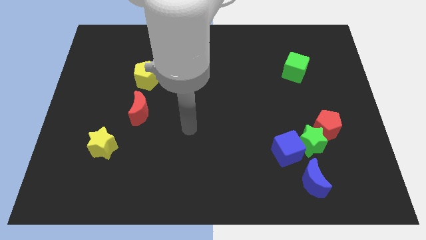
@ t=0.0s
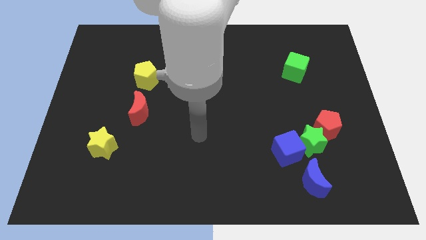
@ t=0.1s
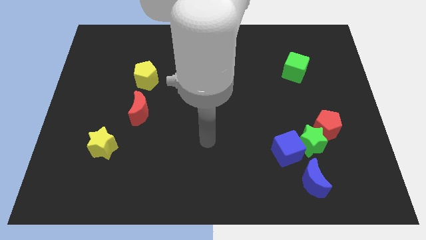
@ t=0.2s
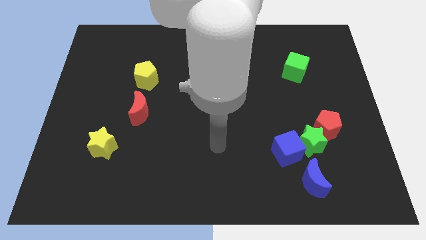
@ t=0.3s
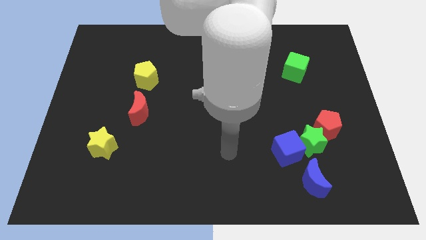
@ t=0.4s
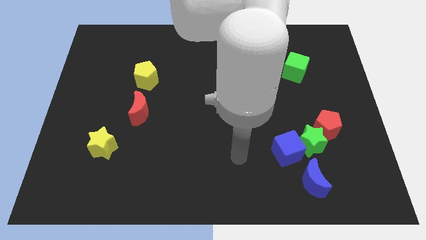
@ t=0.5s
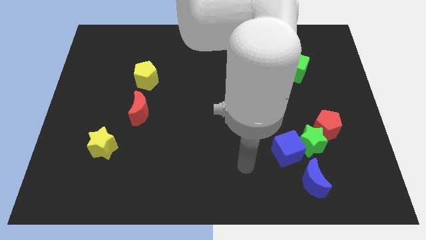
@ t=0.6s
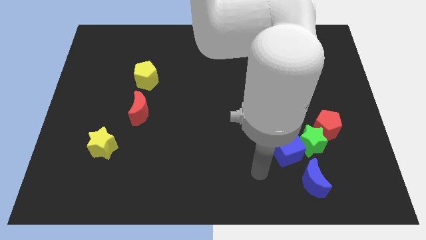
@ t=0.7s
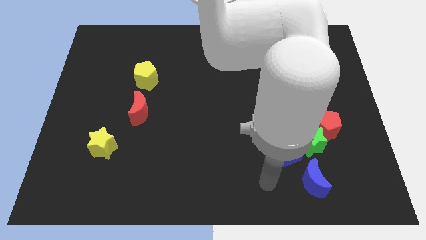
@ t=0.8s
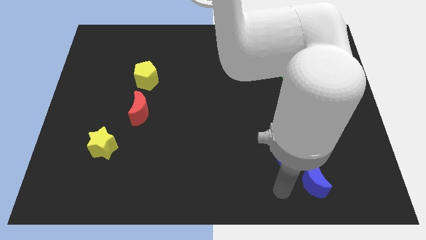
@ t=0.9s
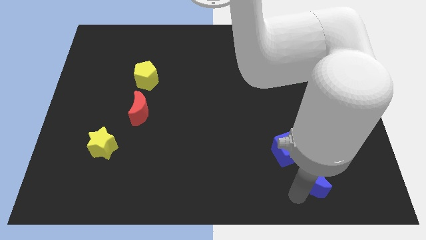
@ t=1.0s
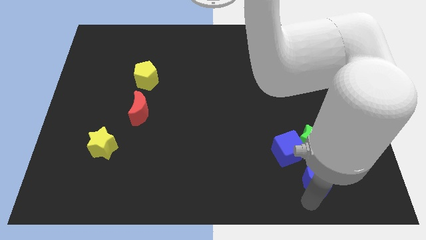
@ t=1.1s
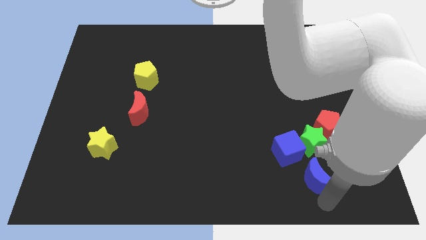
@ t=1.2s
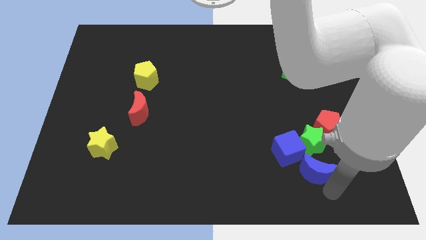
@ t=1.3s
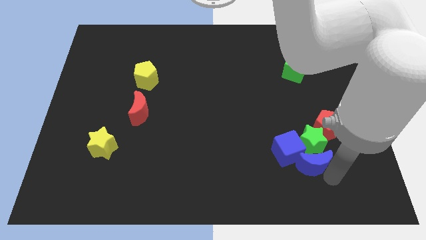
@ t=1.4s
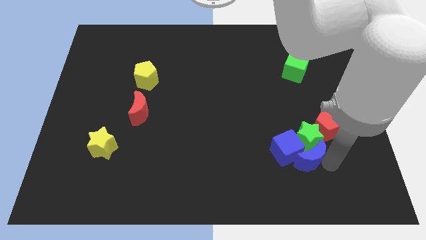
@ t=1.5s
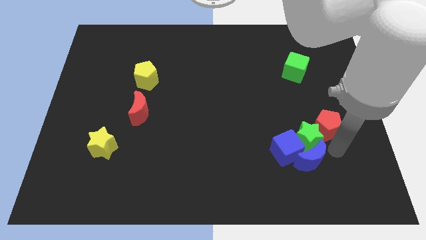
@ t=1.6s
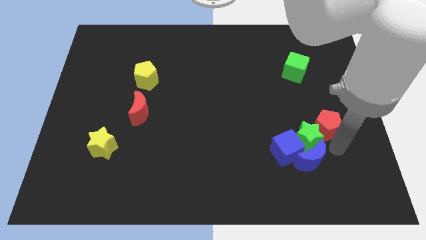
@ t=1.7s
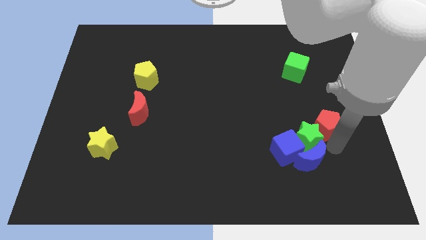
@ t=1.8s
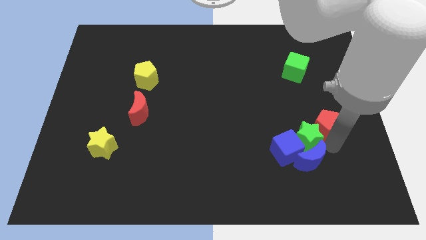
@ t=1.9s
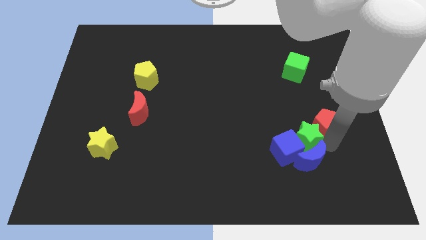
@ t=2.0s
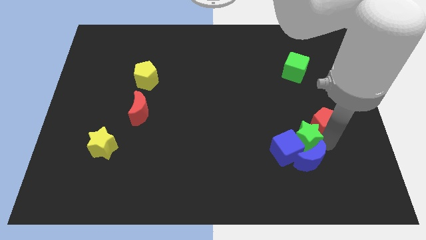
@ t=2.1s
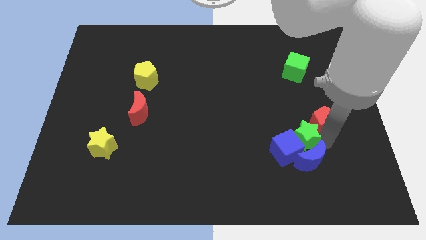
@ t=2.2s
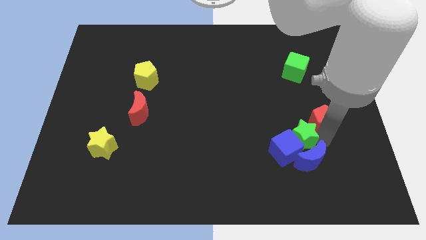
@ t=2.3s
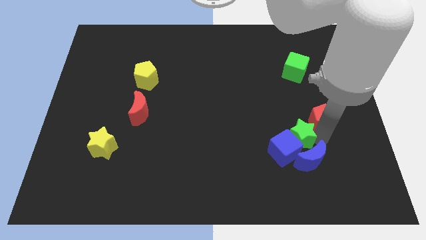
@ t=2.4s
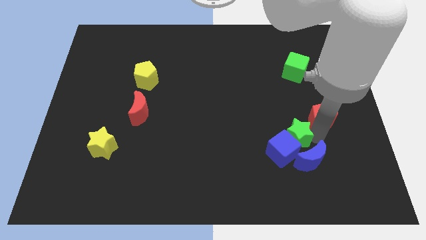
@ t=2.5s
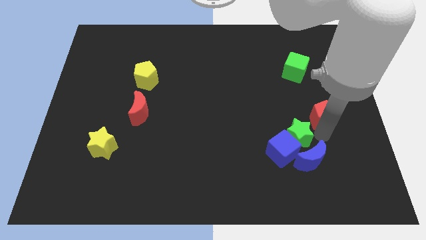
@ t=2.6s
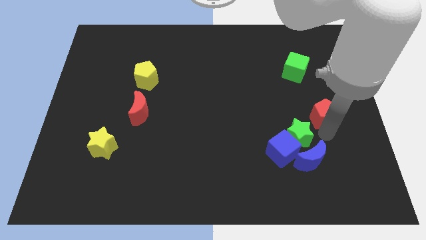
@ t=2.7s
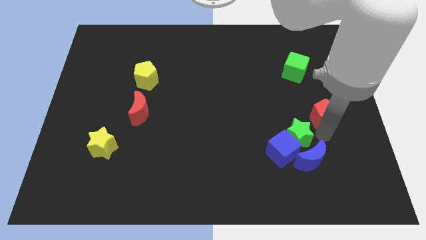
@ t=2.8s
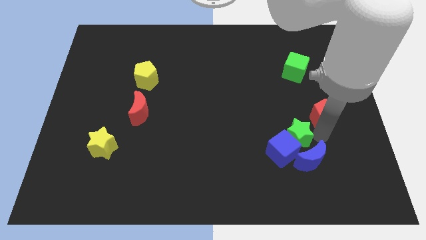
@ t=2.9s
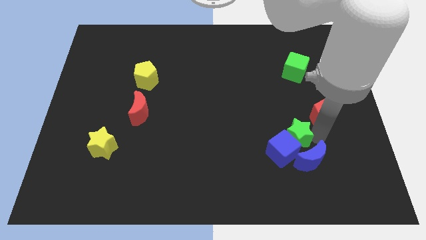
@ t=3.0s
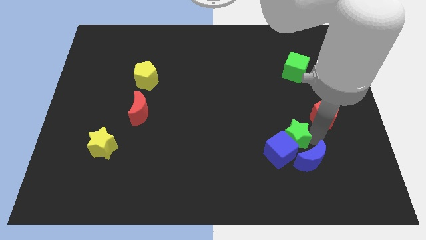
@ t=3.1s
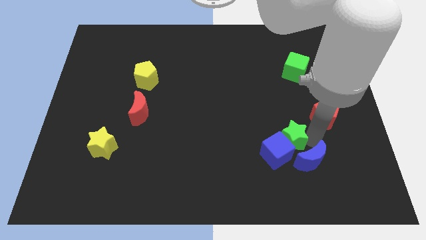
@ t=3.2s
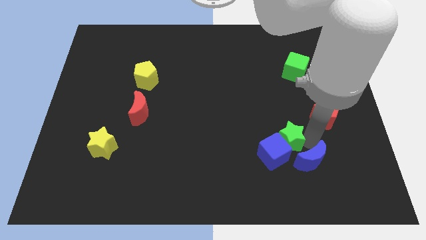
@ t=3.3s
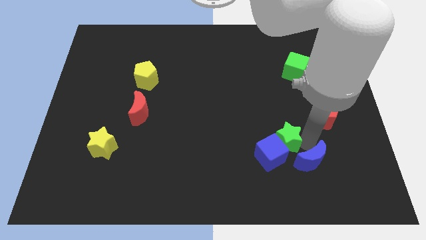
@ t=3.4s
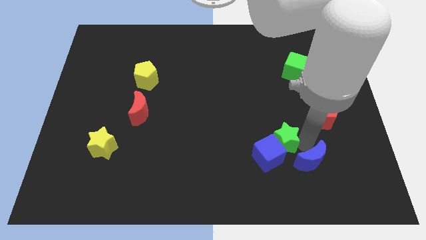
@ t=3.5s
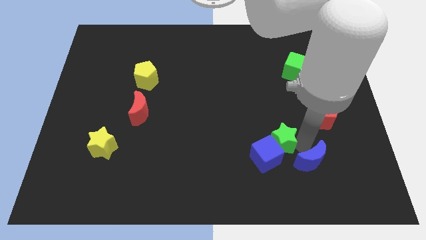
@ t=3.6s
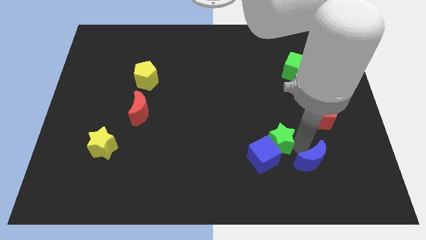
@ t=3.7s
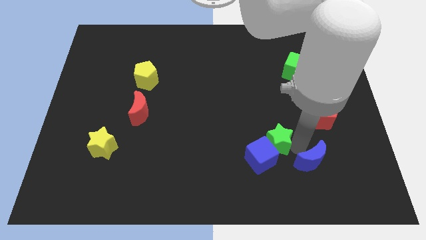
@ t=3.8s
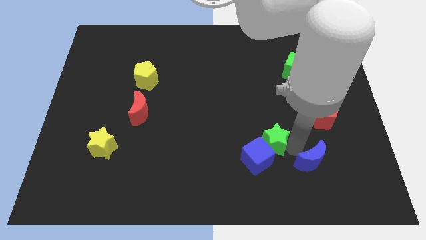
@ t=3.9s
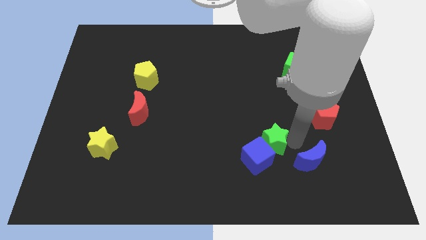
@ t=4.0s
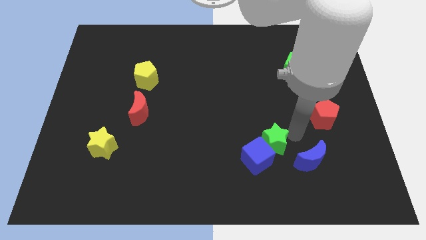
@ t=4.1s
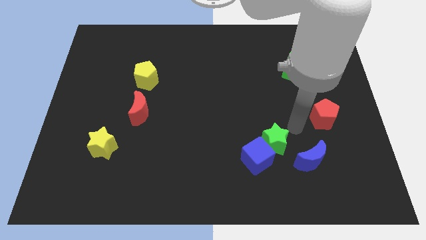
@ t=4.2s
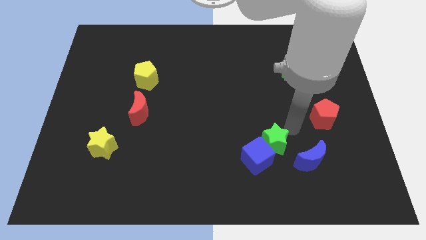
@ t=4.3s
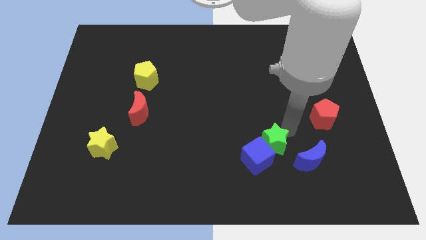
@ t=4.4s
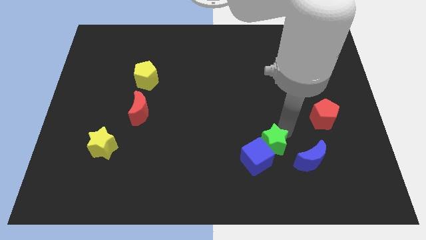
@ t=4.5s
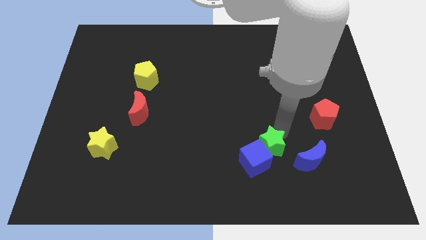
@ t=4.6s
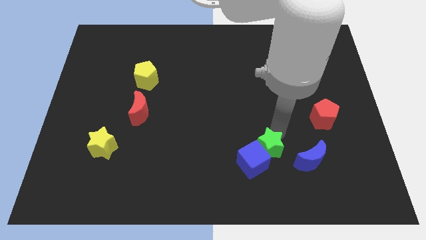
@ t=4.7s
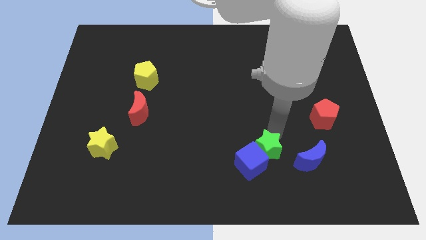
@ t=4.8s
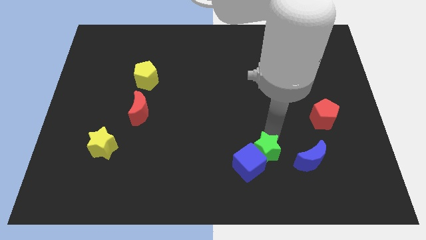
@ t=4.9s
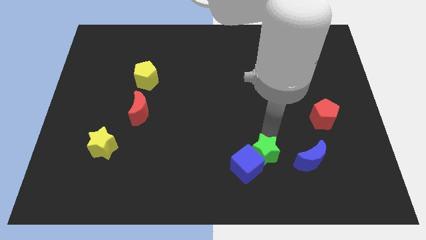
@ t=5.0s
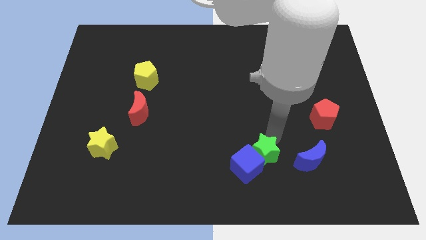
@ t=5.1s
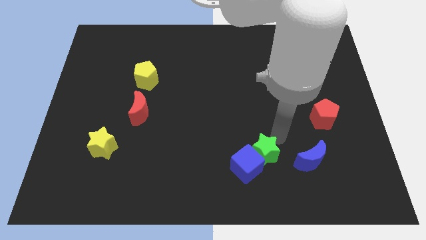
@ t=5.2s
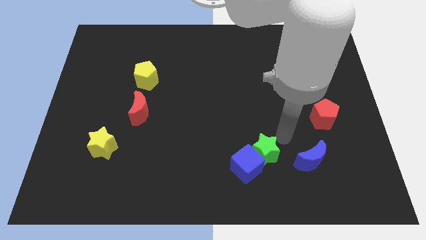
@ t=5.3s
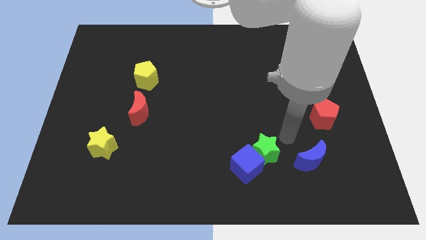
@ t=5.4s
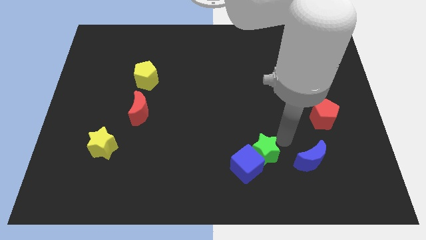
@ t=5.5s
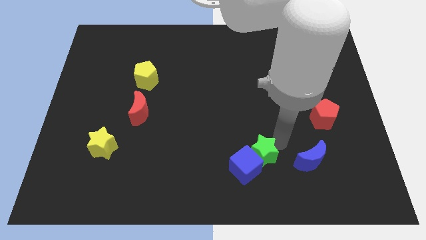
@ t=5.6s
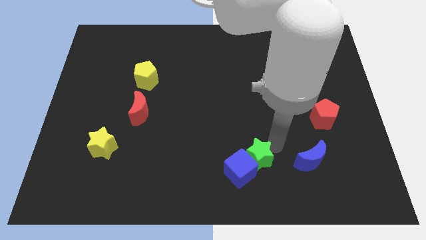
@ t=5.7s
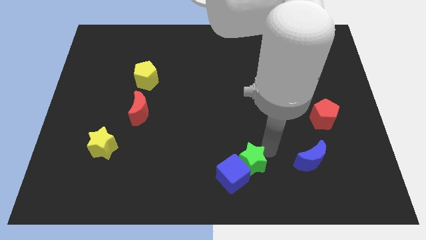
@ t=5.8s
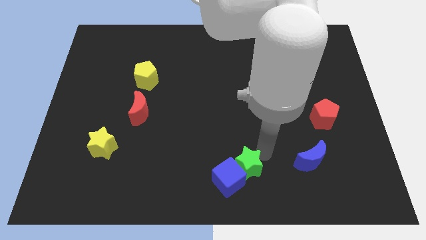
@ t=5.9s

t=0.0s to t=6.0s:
slide the green star to the bottom side
